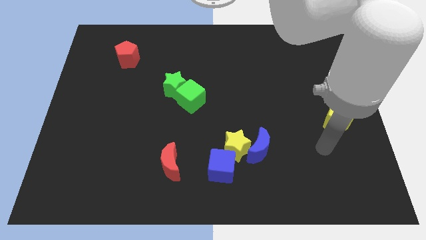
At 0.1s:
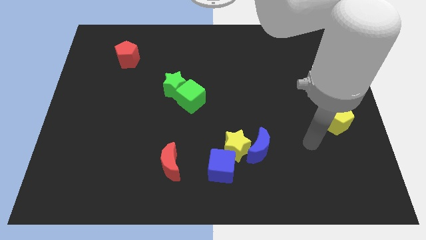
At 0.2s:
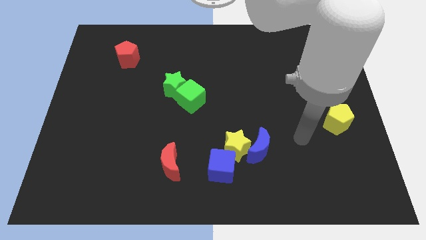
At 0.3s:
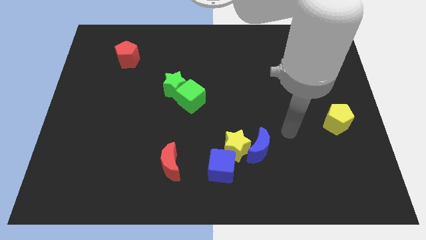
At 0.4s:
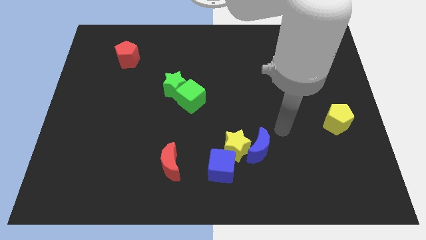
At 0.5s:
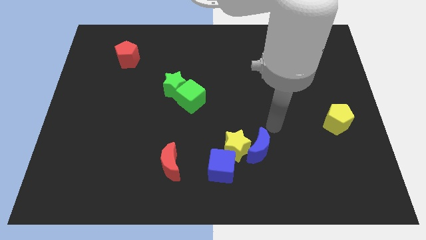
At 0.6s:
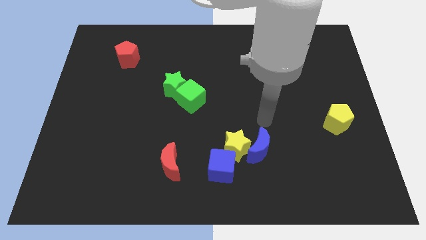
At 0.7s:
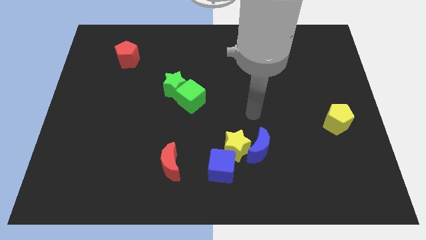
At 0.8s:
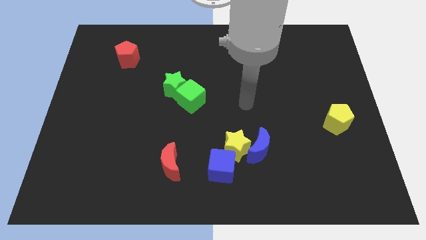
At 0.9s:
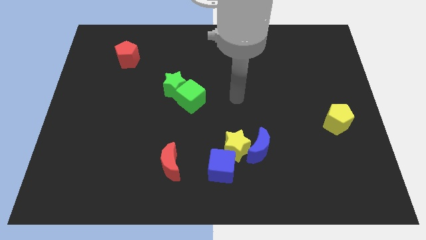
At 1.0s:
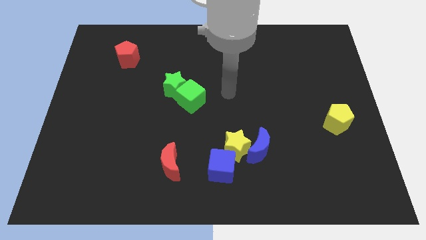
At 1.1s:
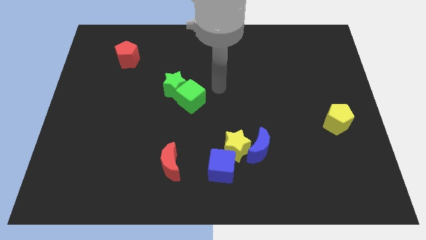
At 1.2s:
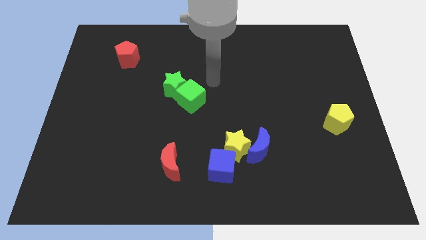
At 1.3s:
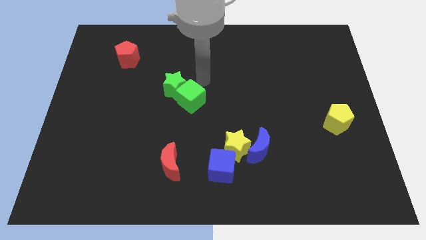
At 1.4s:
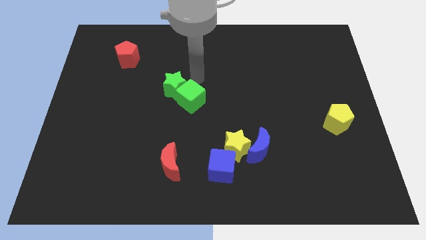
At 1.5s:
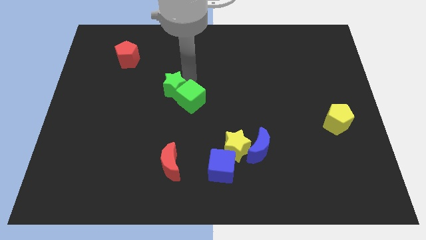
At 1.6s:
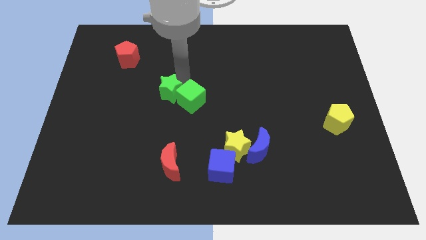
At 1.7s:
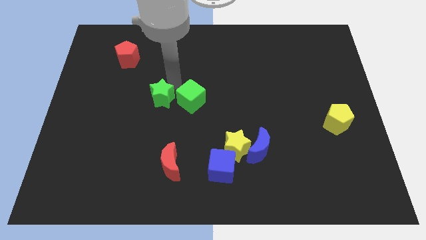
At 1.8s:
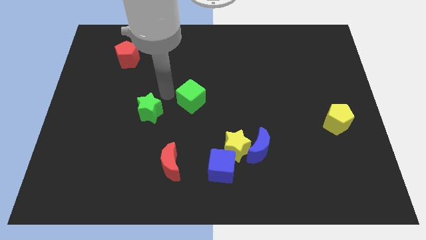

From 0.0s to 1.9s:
move the green cube away from the green star

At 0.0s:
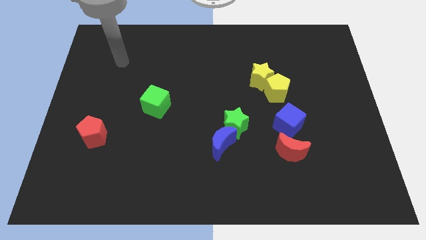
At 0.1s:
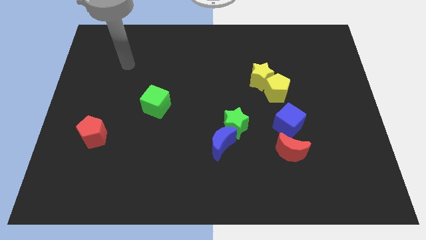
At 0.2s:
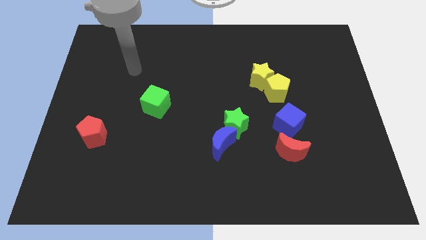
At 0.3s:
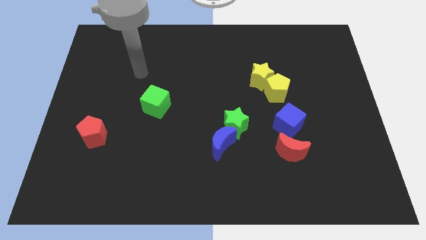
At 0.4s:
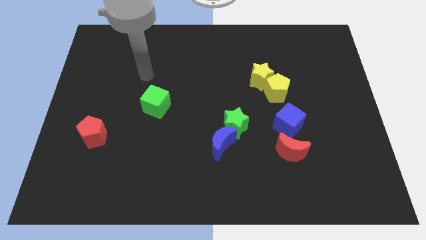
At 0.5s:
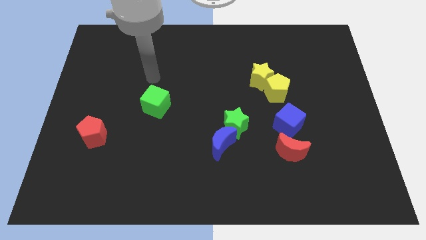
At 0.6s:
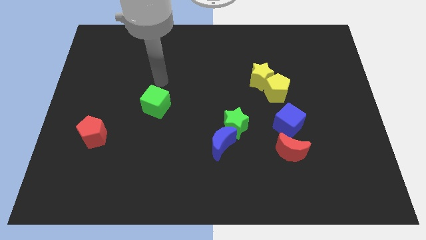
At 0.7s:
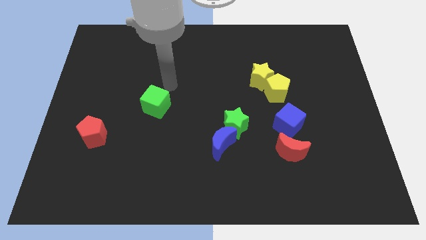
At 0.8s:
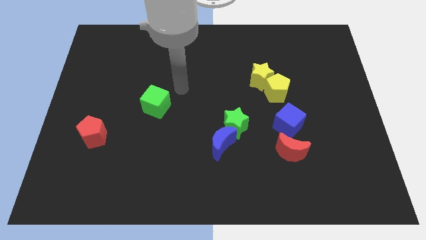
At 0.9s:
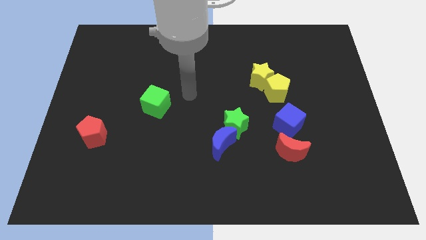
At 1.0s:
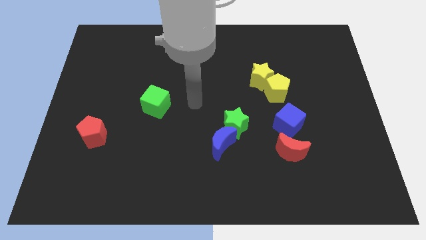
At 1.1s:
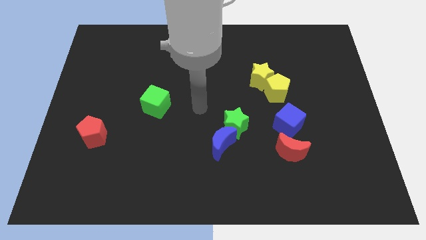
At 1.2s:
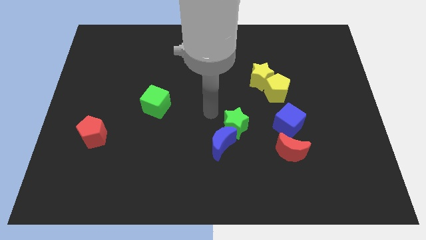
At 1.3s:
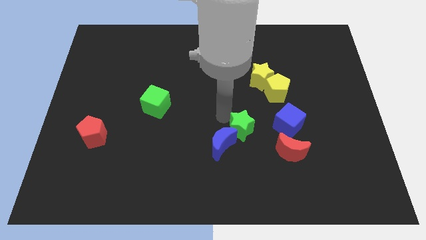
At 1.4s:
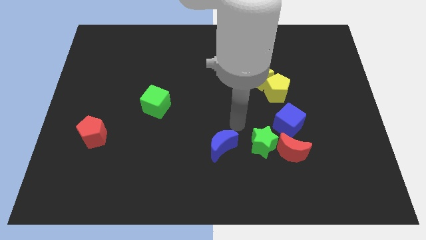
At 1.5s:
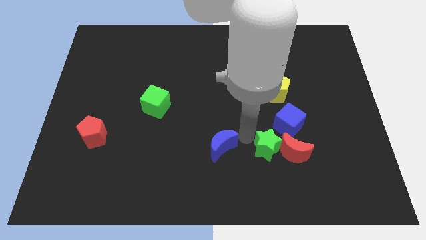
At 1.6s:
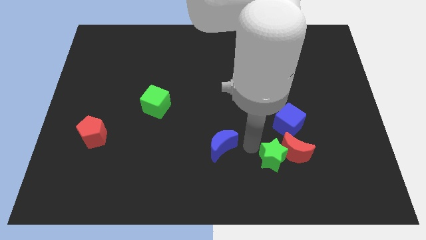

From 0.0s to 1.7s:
separate the blue moon from the green star

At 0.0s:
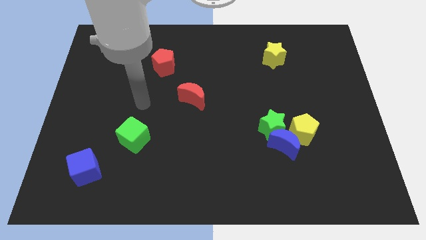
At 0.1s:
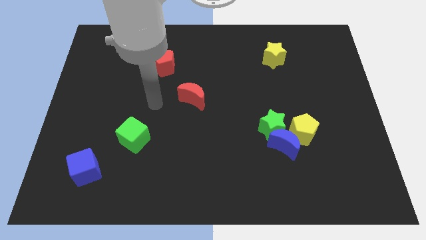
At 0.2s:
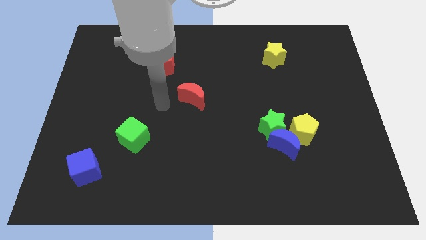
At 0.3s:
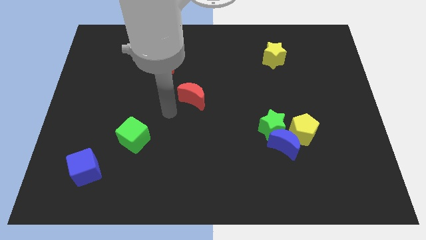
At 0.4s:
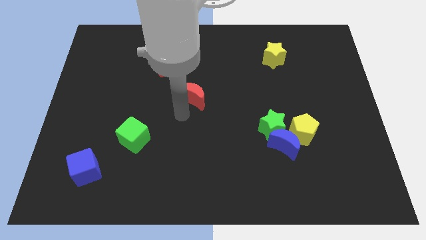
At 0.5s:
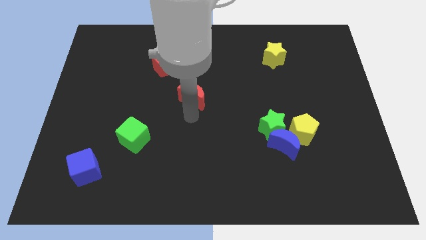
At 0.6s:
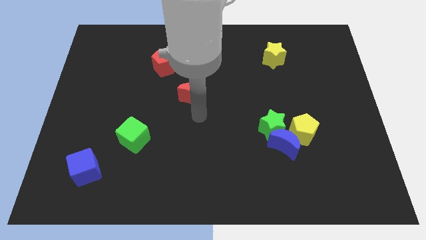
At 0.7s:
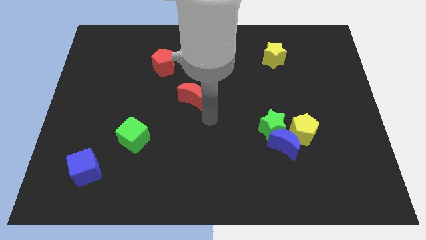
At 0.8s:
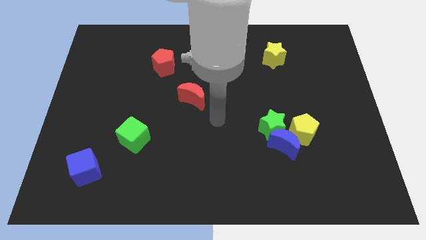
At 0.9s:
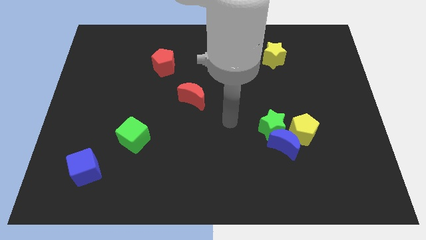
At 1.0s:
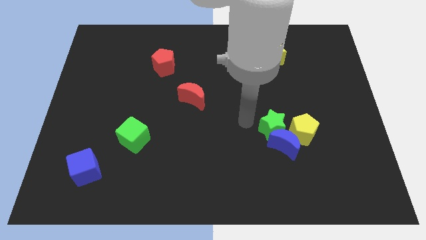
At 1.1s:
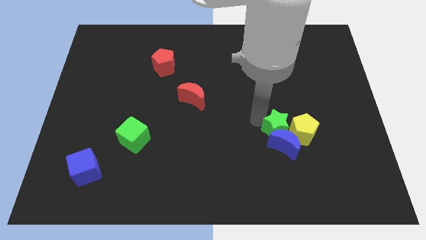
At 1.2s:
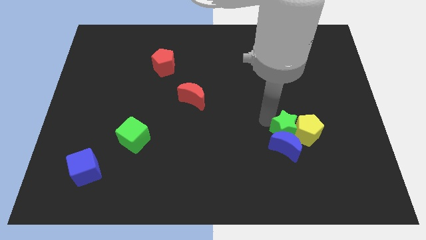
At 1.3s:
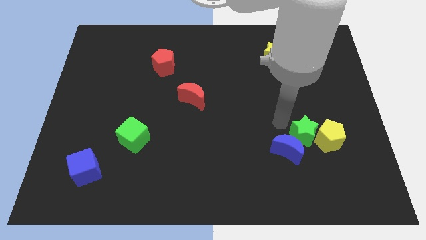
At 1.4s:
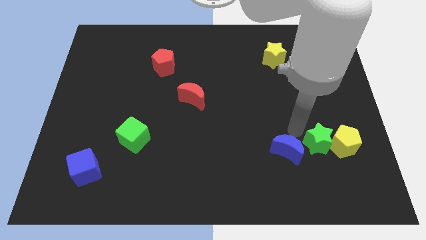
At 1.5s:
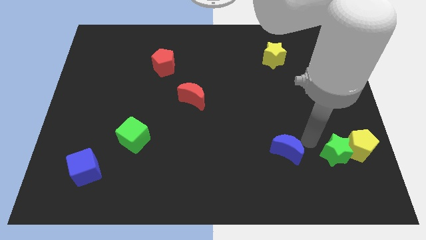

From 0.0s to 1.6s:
pull the blue moon apart from the green star and yellow pentagon

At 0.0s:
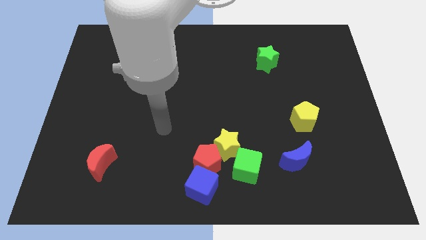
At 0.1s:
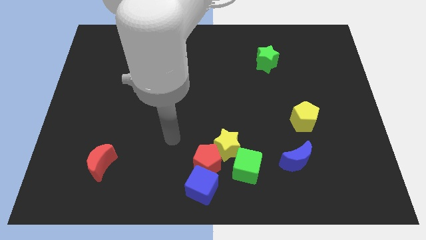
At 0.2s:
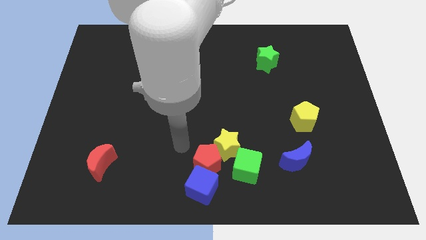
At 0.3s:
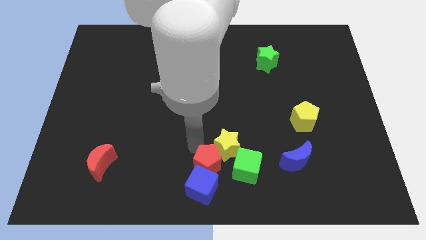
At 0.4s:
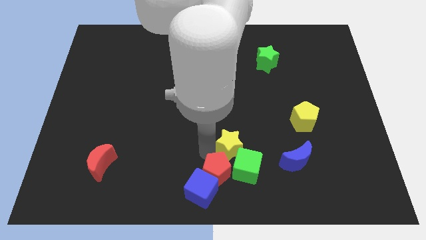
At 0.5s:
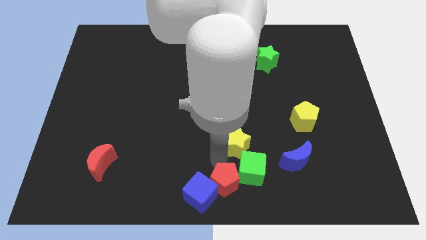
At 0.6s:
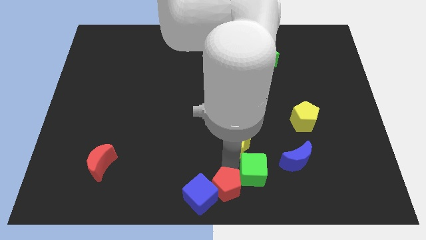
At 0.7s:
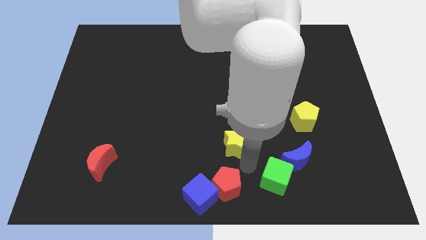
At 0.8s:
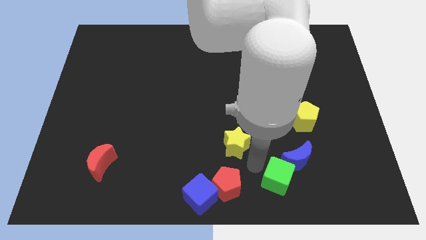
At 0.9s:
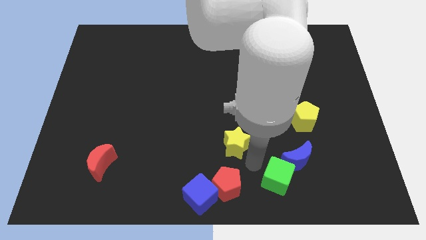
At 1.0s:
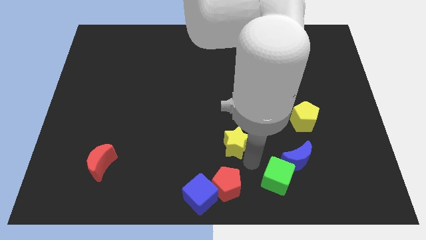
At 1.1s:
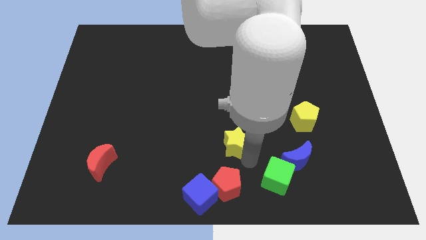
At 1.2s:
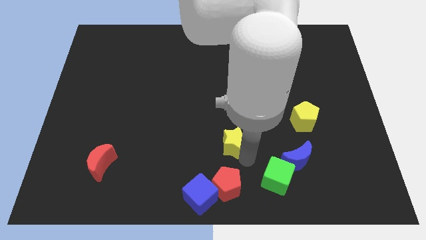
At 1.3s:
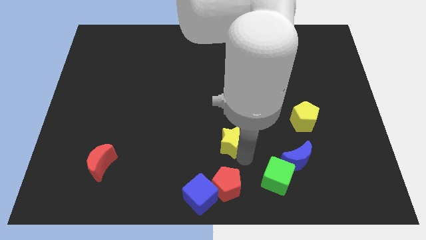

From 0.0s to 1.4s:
separate the yellow star from the red pentagon and green cube

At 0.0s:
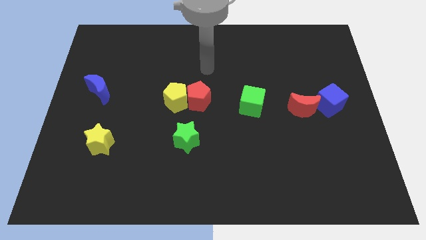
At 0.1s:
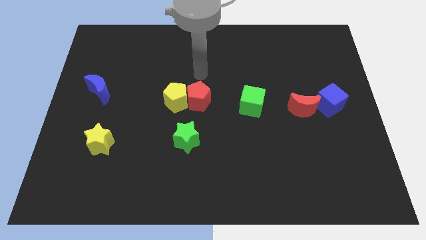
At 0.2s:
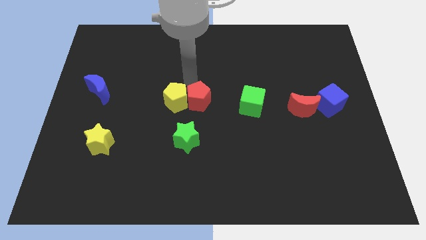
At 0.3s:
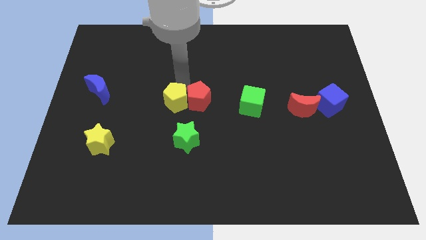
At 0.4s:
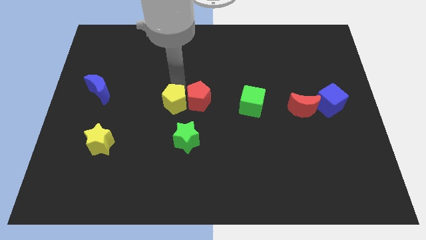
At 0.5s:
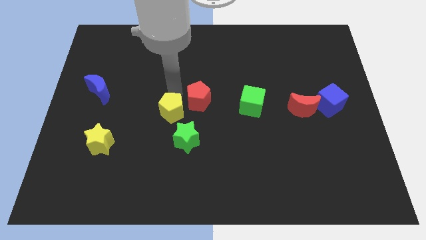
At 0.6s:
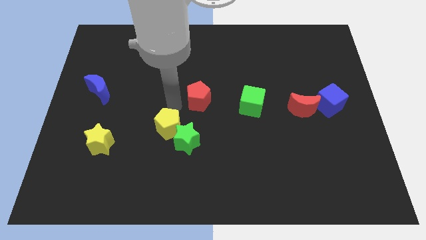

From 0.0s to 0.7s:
move the red pentagon away from the yellow pentagon

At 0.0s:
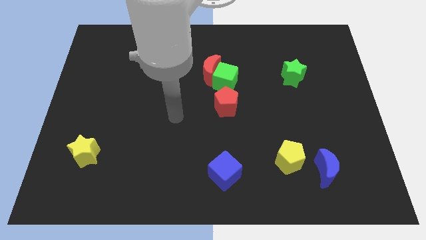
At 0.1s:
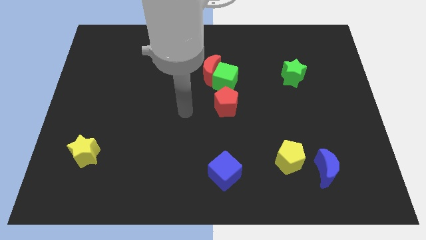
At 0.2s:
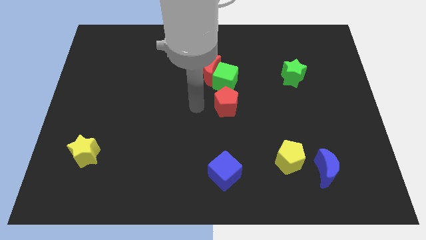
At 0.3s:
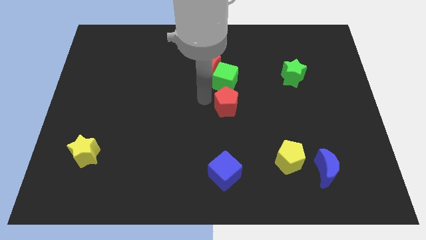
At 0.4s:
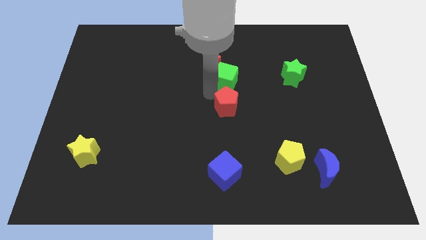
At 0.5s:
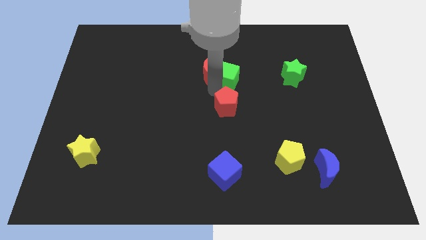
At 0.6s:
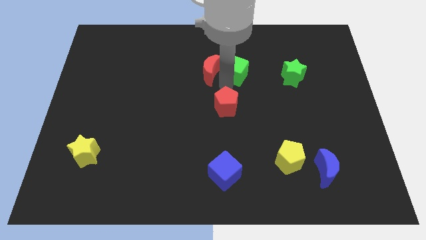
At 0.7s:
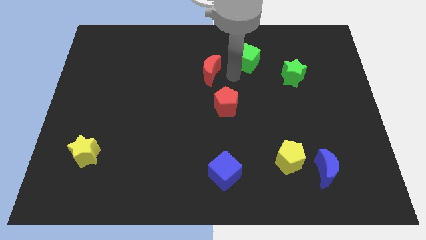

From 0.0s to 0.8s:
separate the red moon from the green cube

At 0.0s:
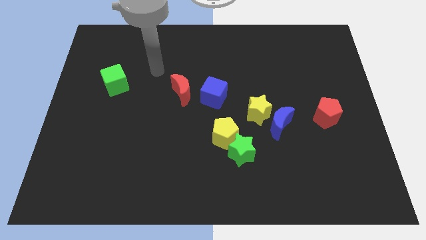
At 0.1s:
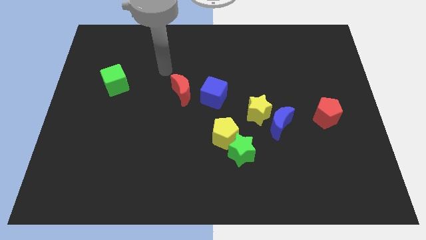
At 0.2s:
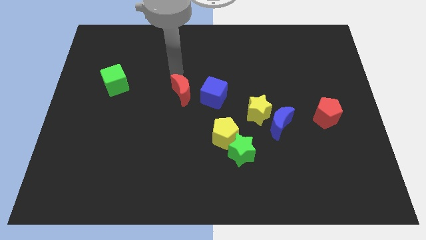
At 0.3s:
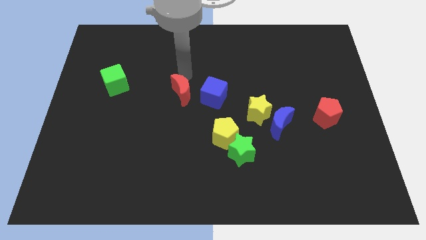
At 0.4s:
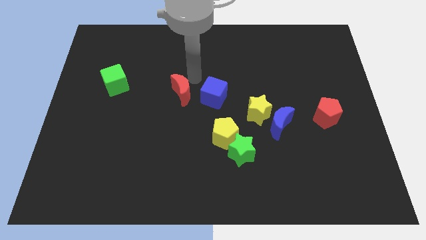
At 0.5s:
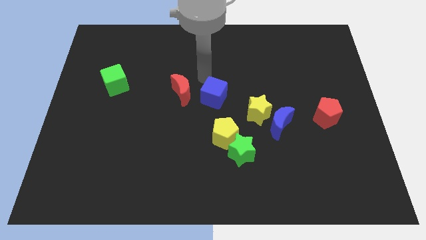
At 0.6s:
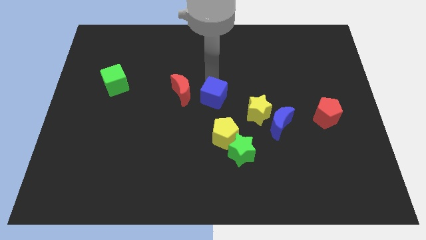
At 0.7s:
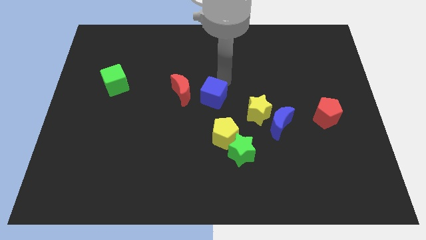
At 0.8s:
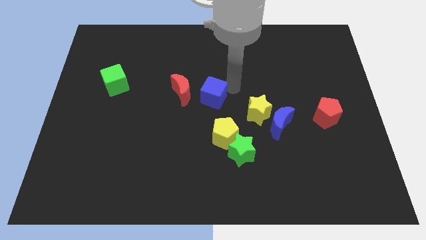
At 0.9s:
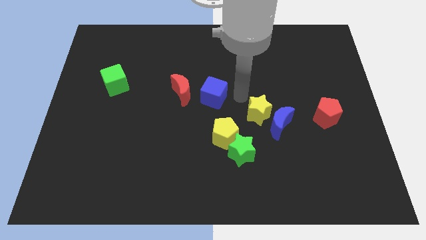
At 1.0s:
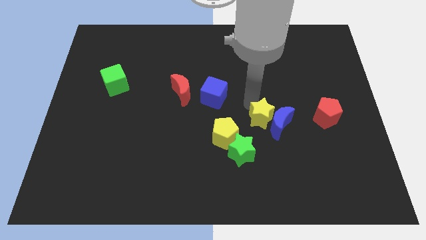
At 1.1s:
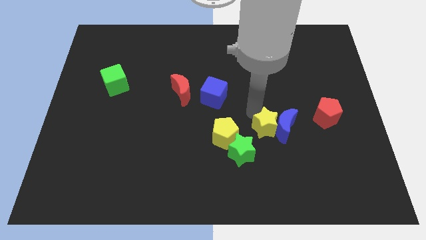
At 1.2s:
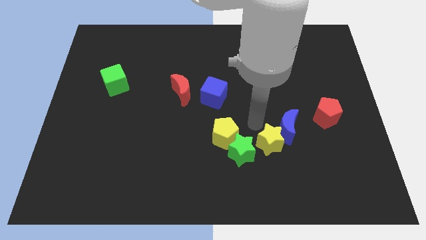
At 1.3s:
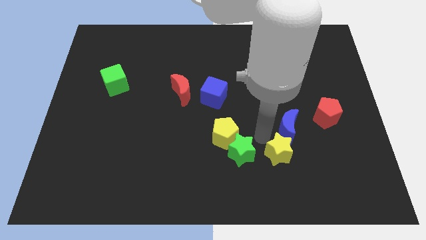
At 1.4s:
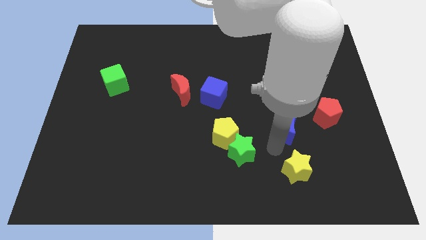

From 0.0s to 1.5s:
pull the blue moon apart from the yellow star
